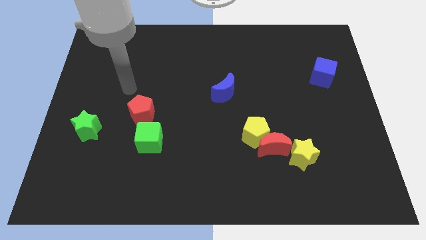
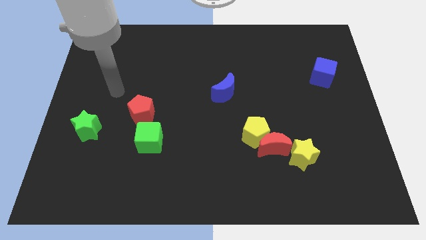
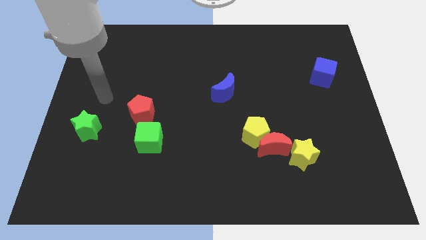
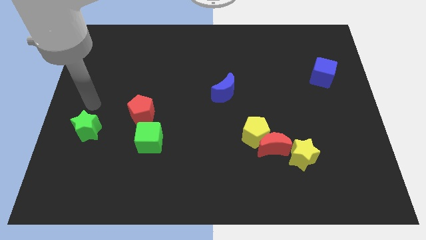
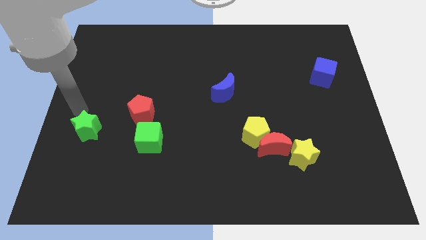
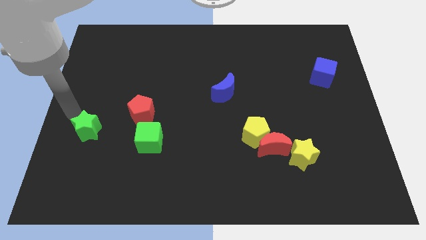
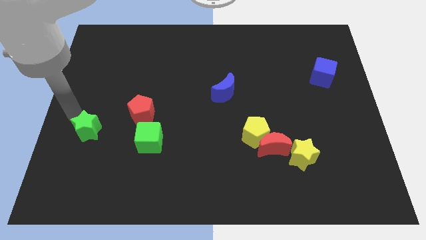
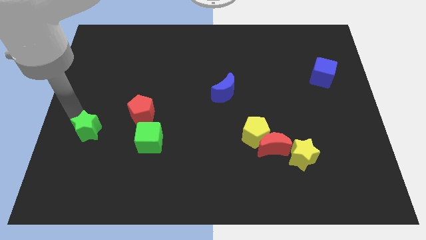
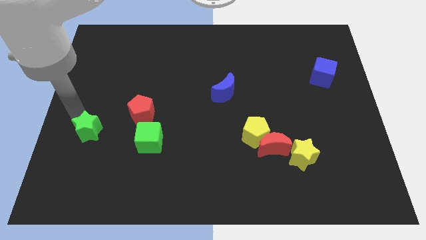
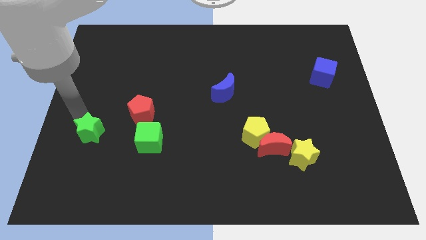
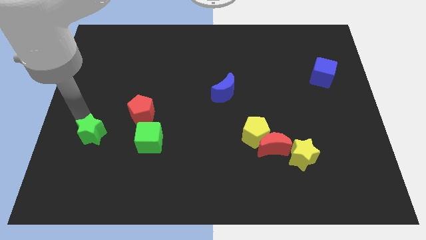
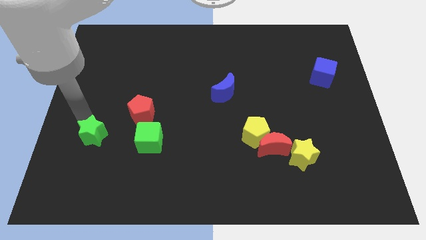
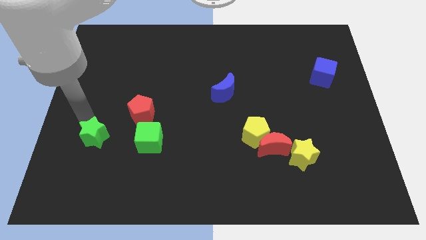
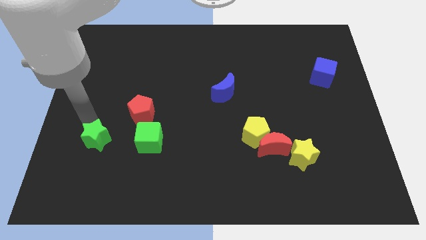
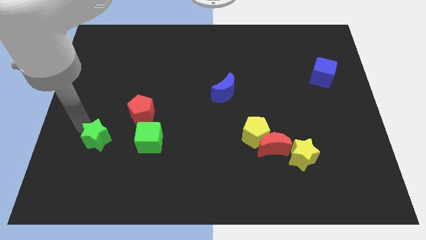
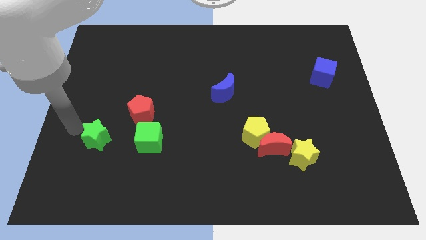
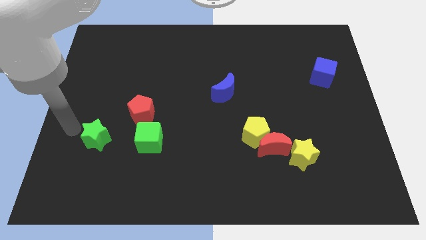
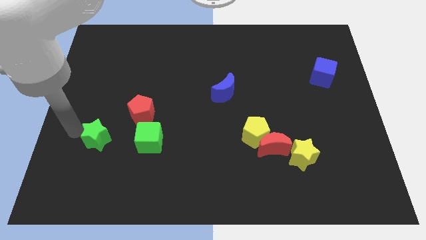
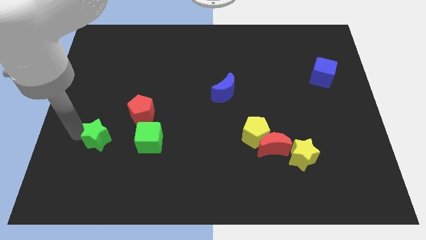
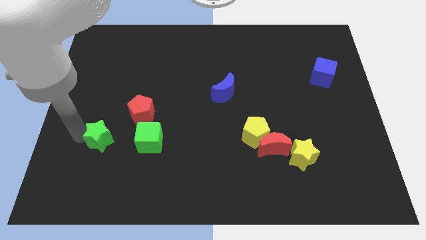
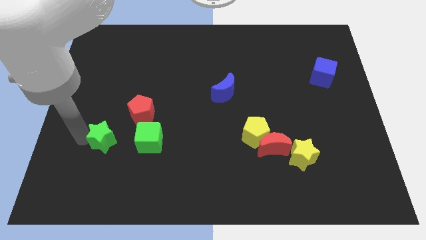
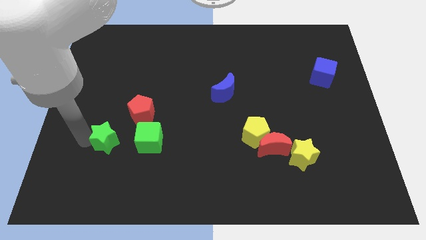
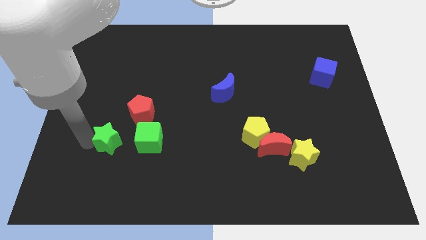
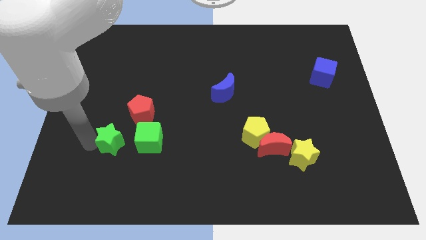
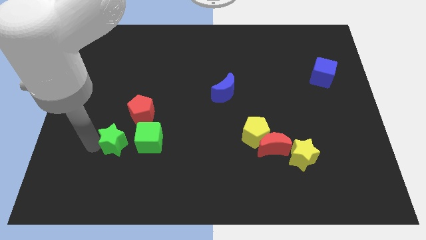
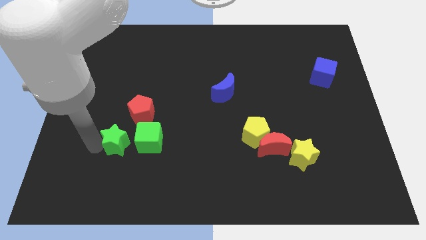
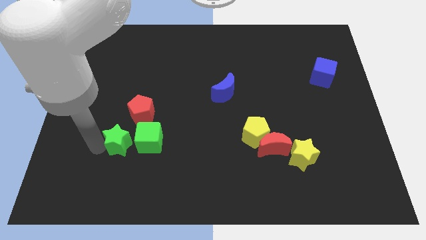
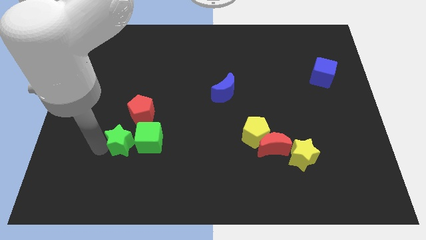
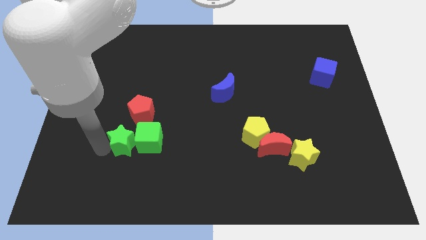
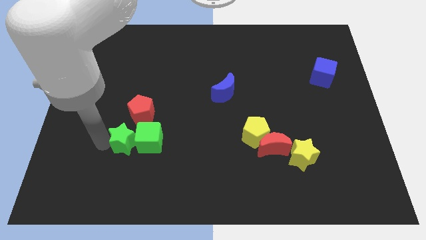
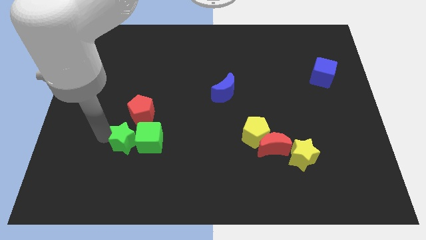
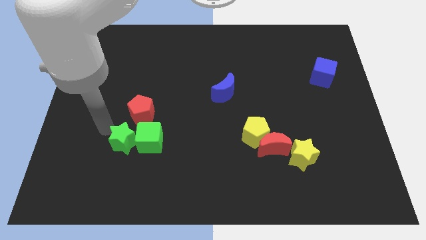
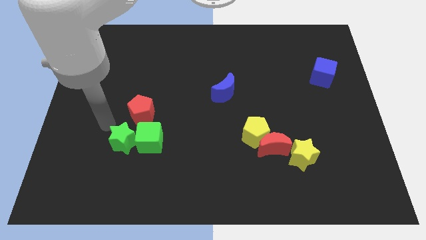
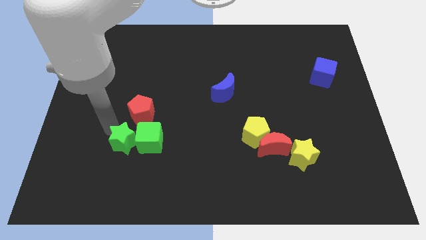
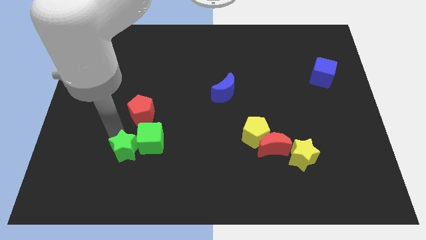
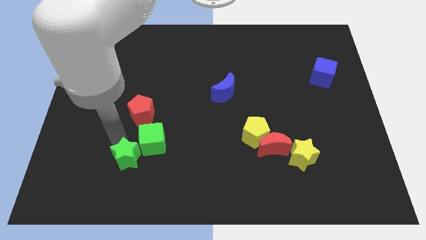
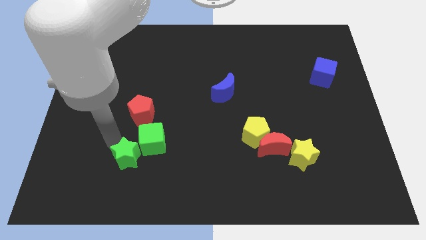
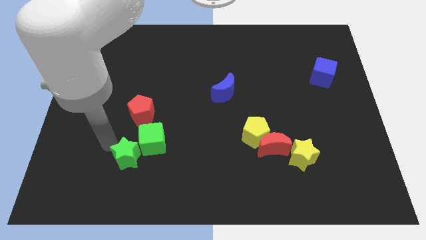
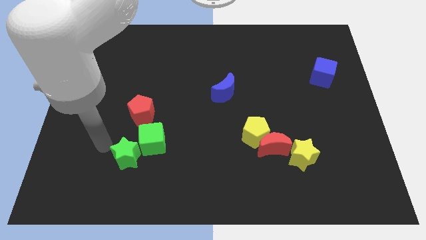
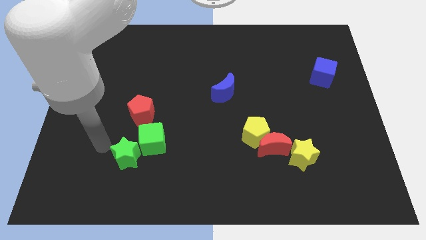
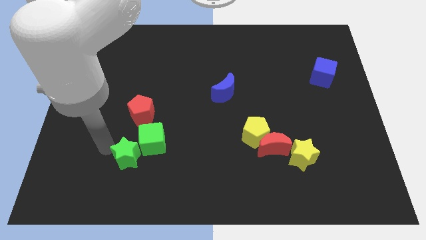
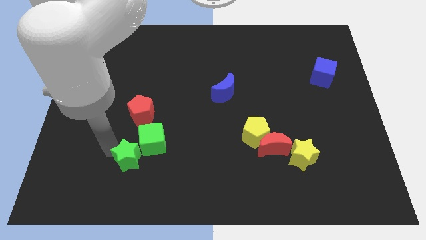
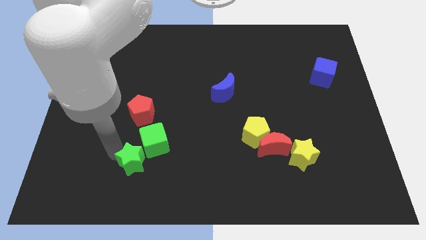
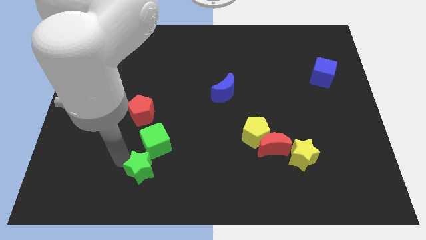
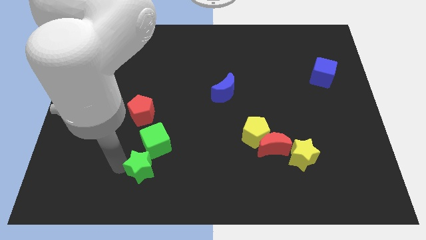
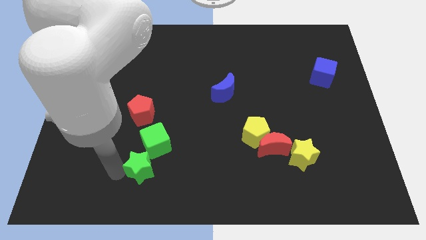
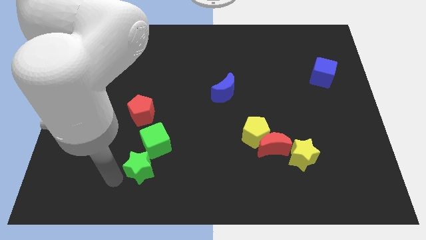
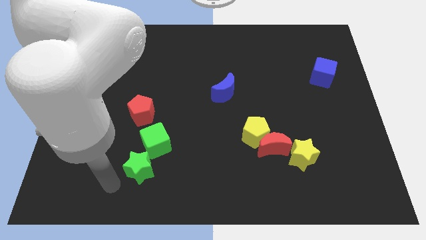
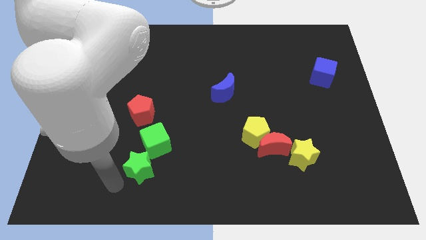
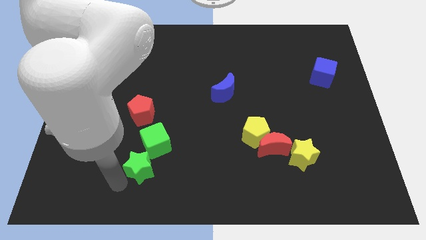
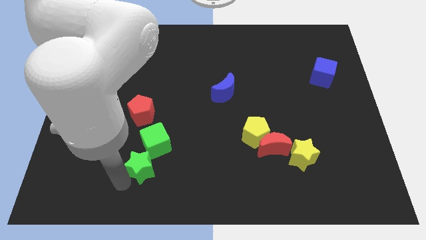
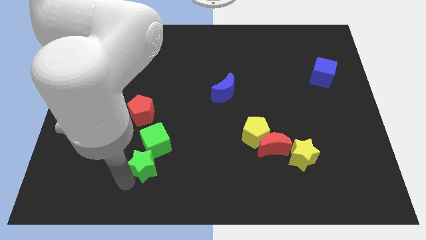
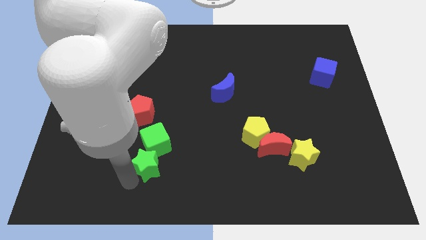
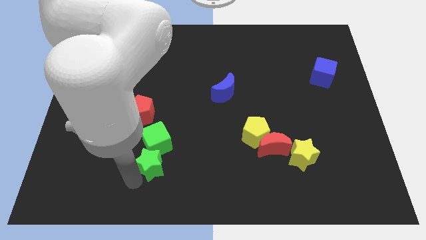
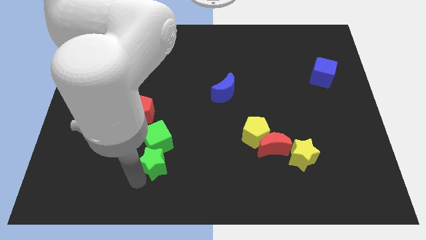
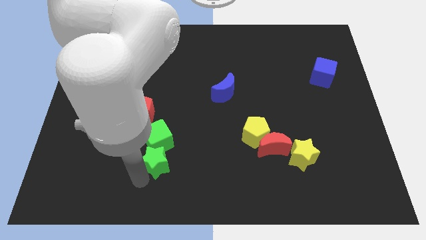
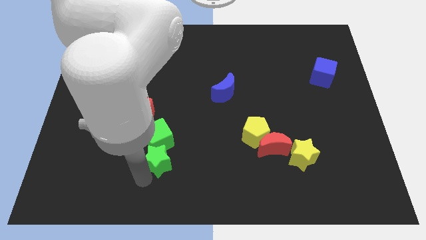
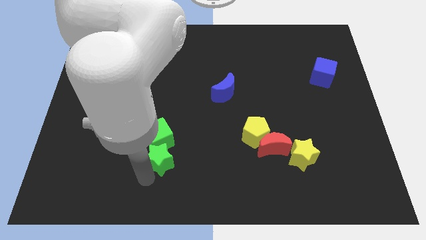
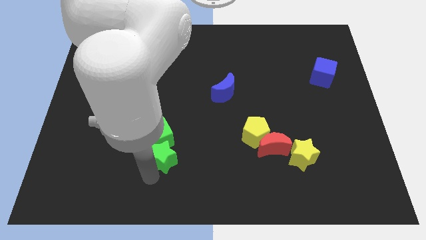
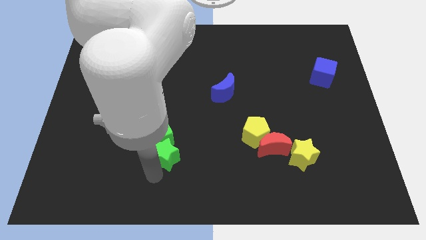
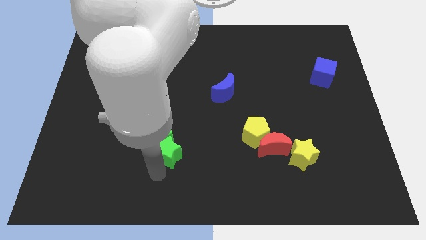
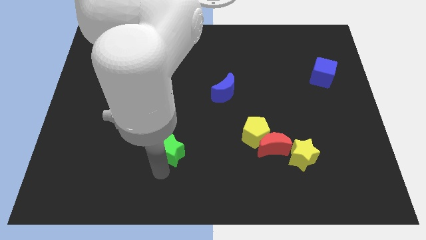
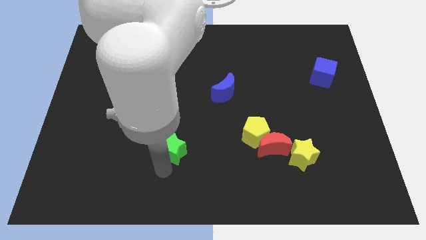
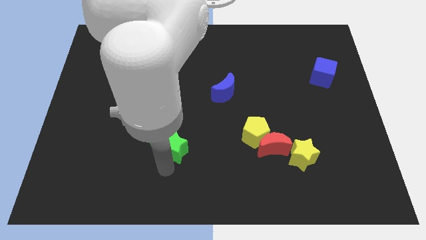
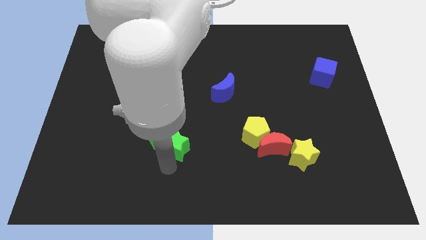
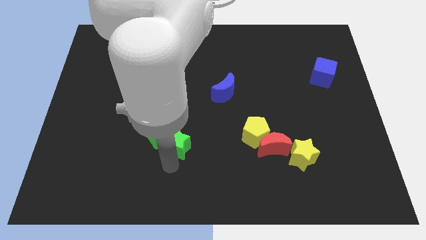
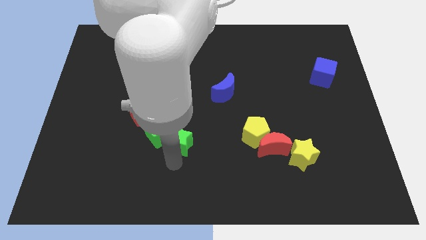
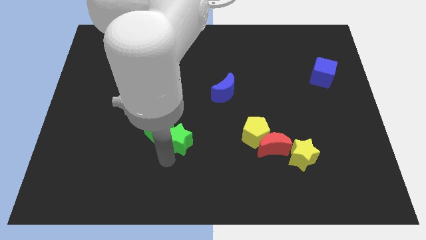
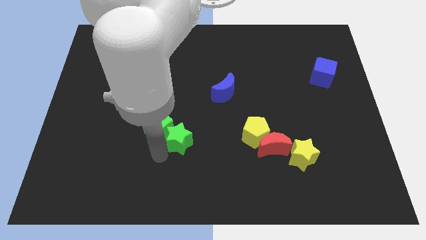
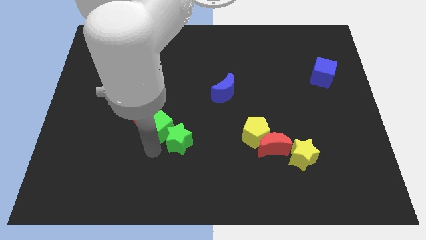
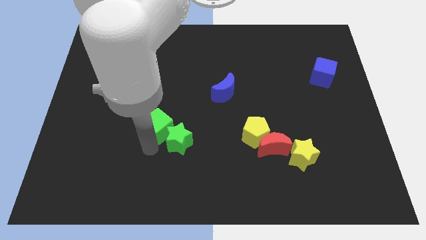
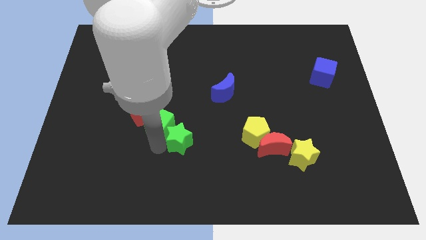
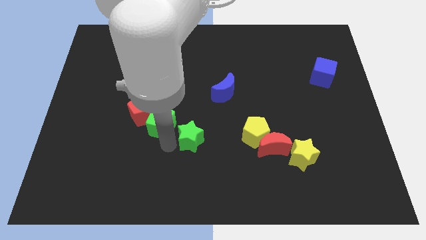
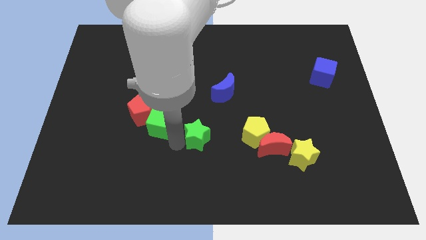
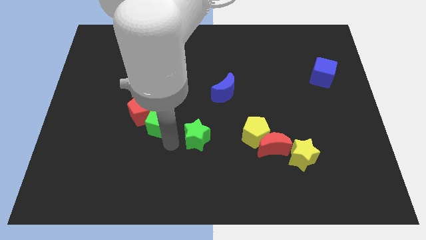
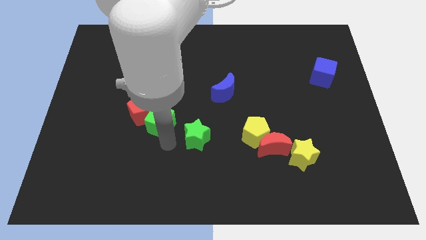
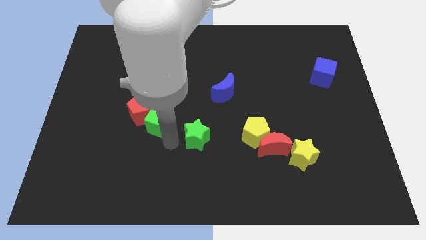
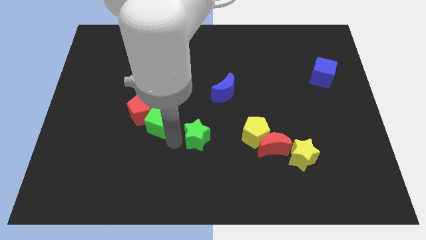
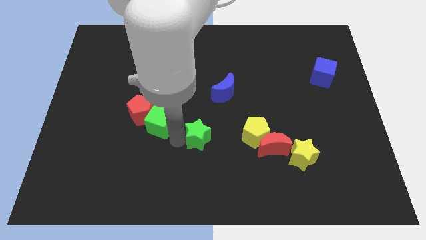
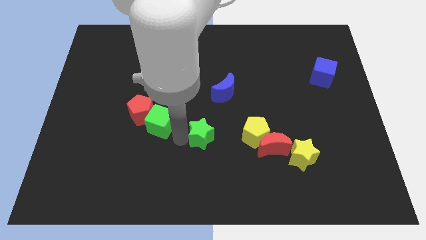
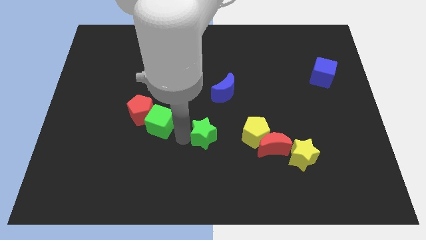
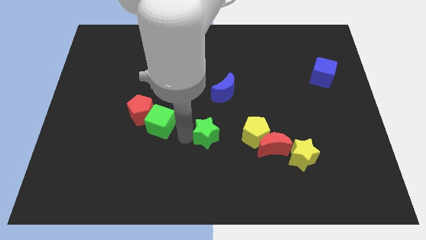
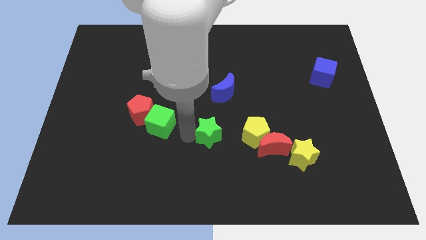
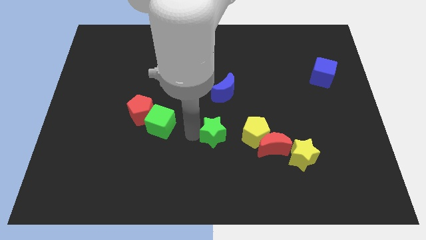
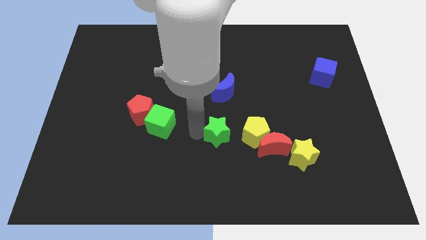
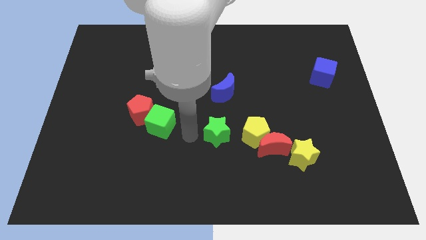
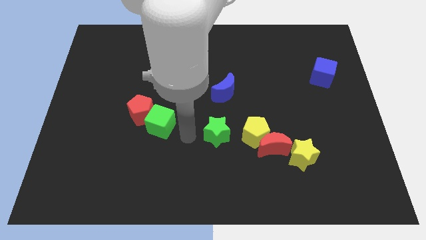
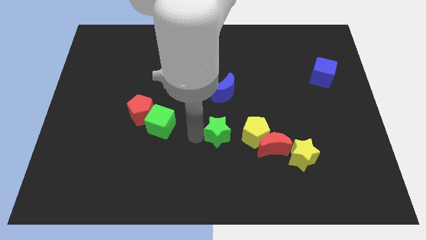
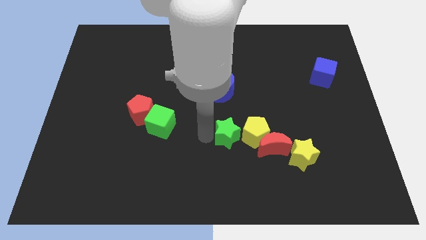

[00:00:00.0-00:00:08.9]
push the green star to the yellow pentagon
